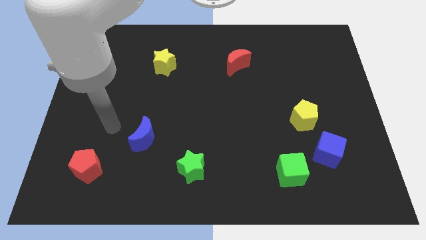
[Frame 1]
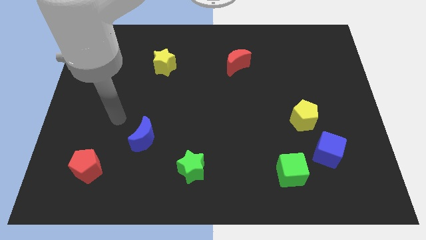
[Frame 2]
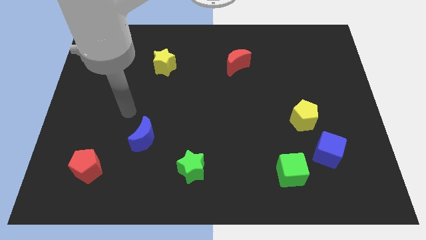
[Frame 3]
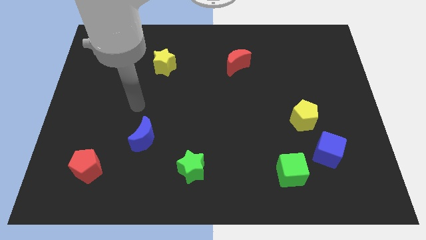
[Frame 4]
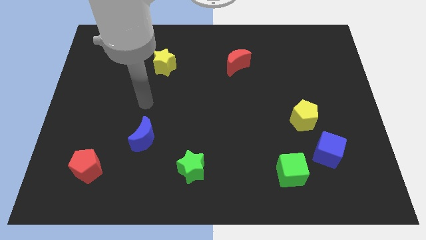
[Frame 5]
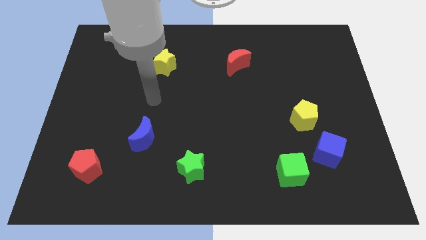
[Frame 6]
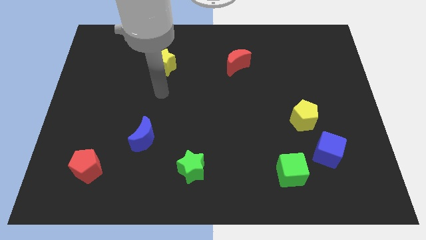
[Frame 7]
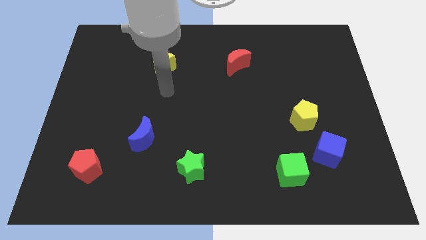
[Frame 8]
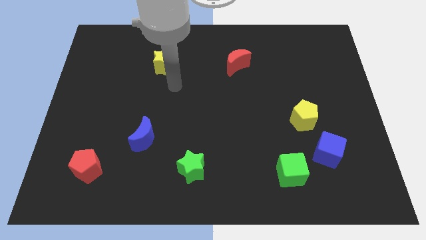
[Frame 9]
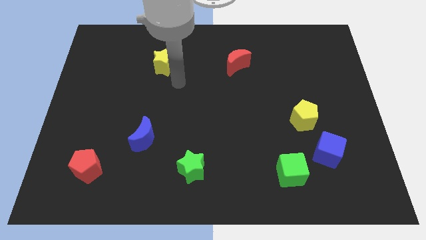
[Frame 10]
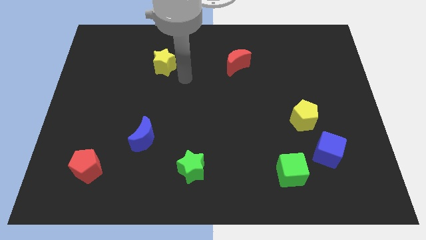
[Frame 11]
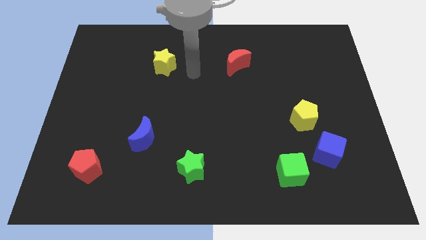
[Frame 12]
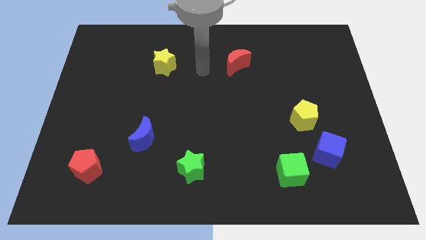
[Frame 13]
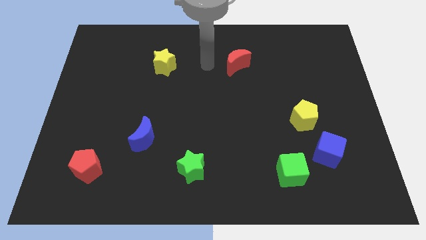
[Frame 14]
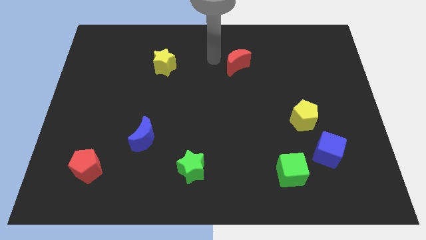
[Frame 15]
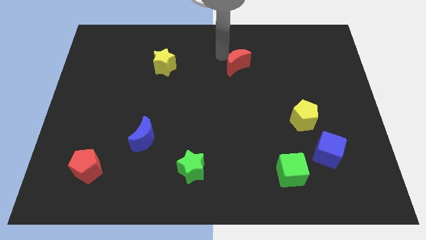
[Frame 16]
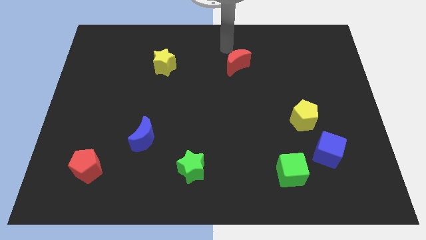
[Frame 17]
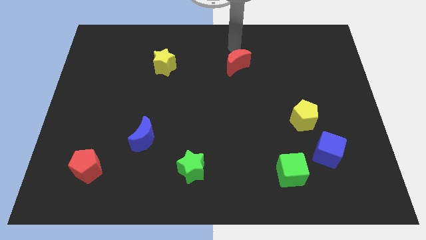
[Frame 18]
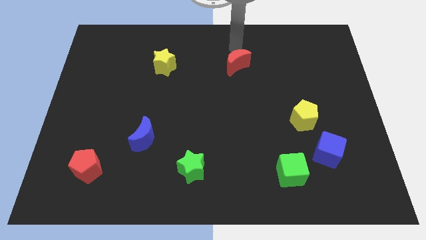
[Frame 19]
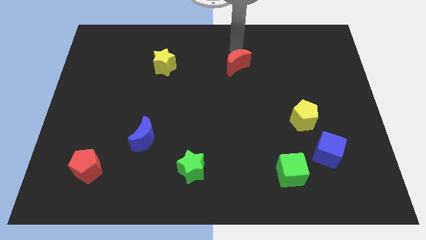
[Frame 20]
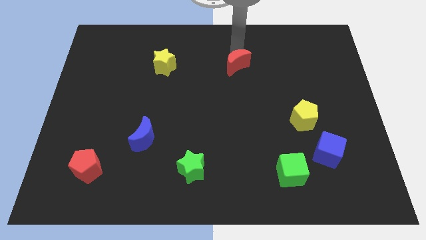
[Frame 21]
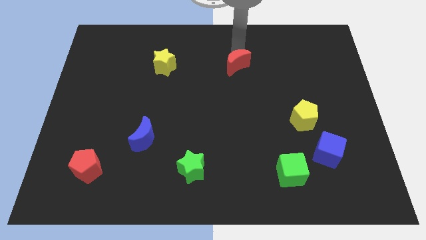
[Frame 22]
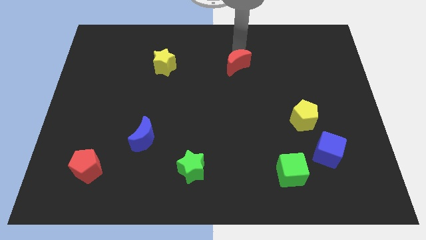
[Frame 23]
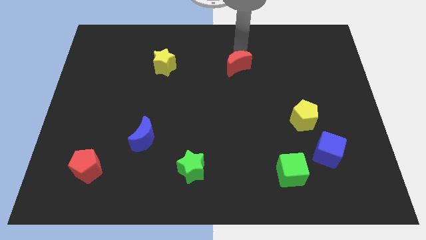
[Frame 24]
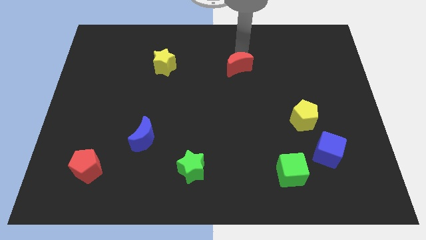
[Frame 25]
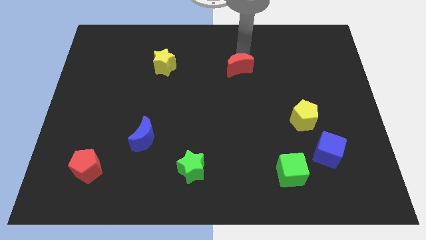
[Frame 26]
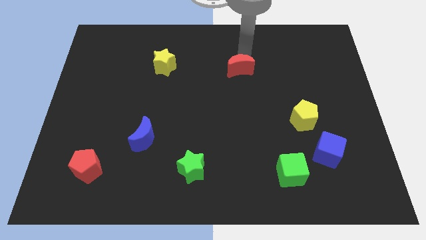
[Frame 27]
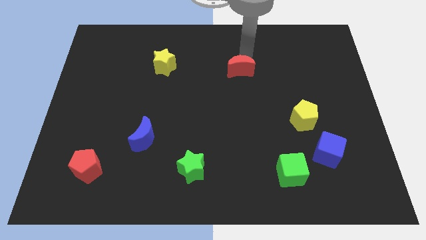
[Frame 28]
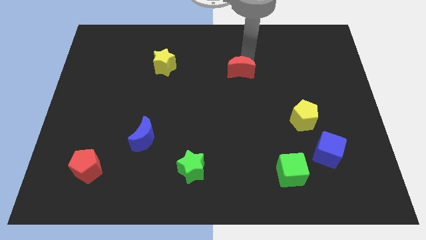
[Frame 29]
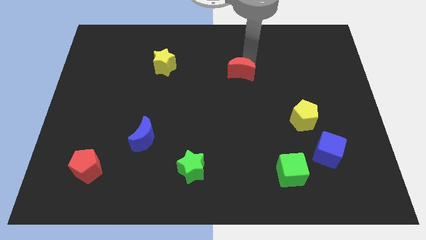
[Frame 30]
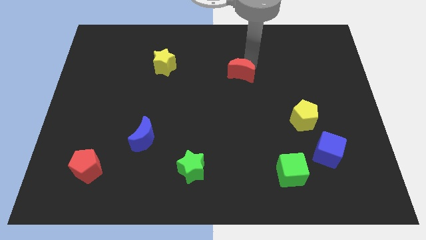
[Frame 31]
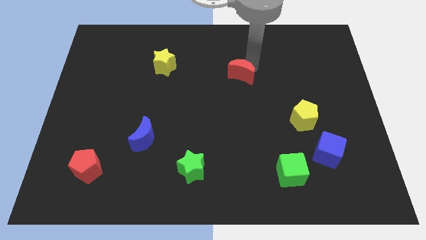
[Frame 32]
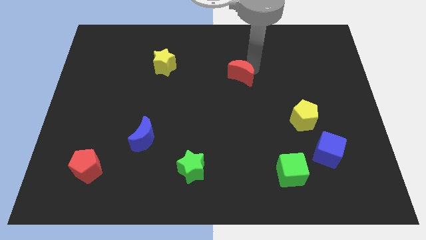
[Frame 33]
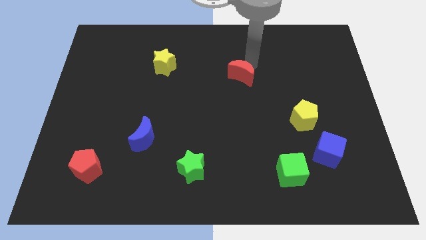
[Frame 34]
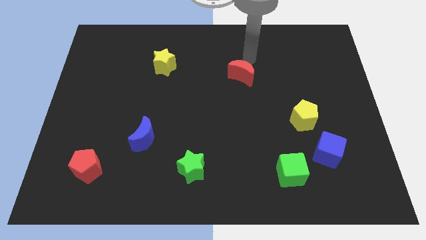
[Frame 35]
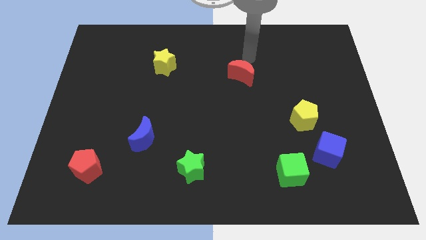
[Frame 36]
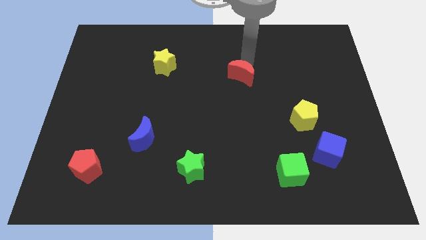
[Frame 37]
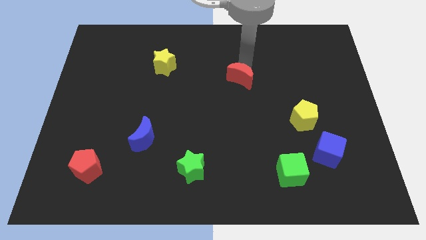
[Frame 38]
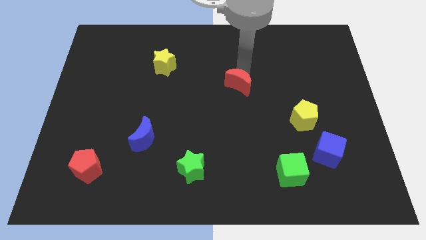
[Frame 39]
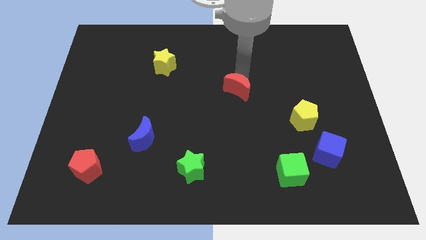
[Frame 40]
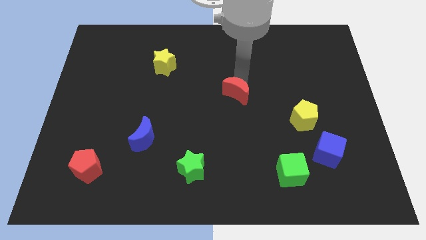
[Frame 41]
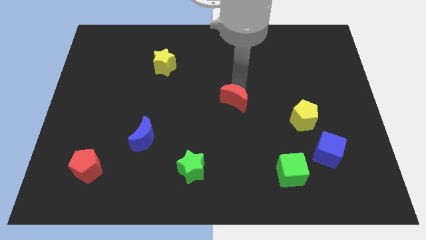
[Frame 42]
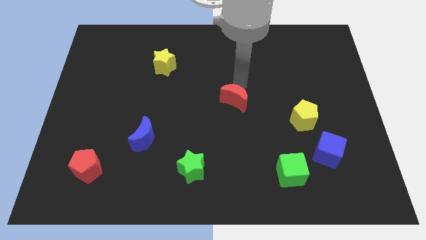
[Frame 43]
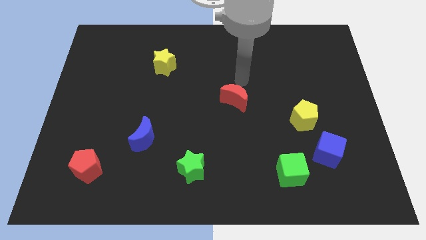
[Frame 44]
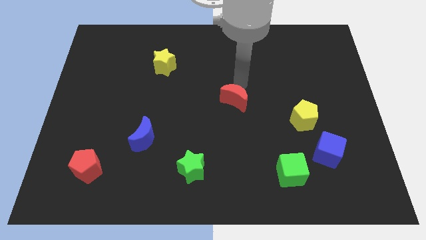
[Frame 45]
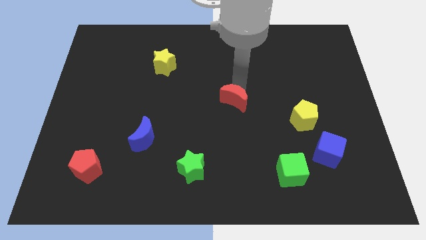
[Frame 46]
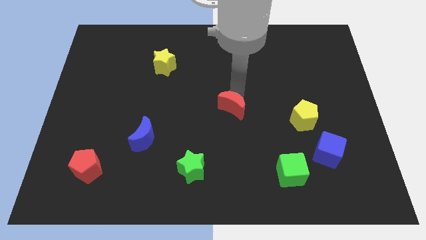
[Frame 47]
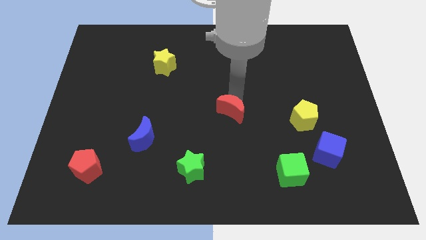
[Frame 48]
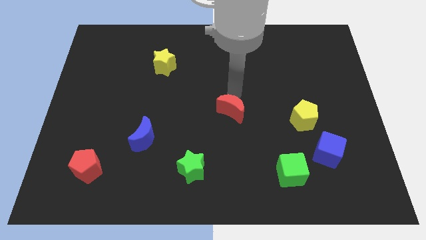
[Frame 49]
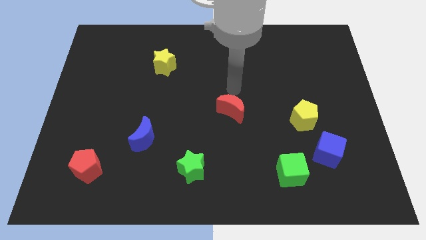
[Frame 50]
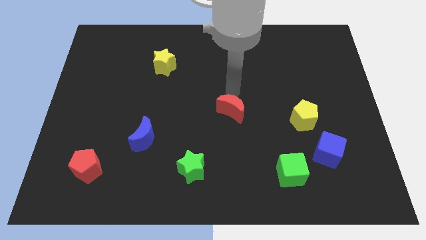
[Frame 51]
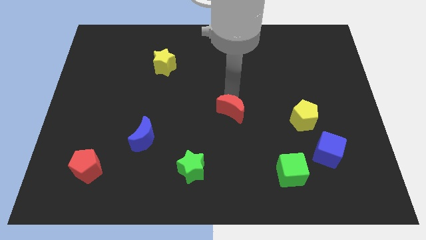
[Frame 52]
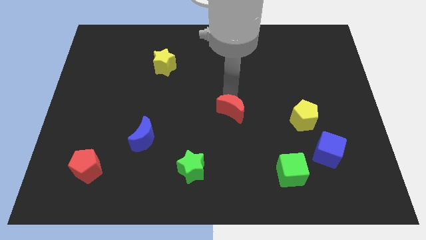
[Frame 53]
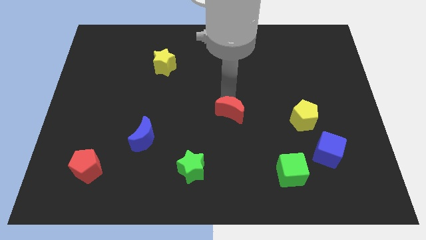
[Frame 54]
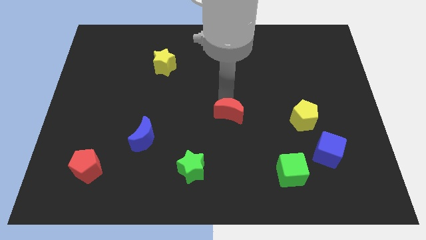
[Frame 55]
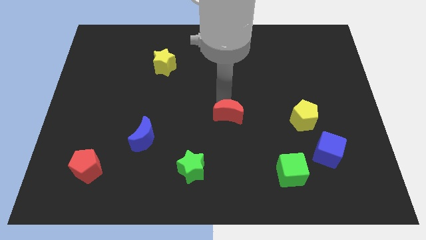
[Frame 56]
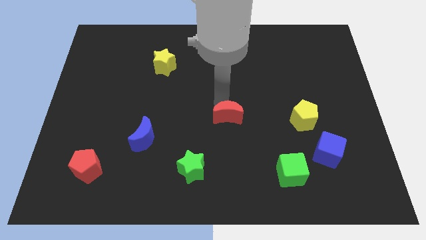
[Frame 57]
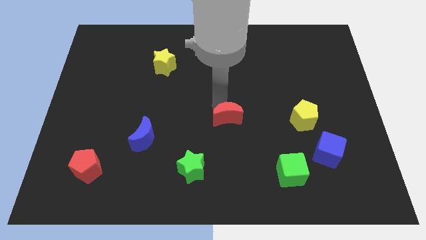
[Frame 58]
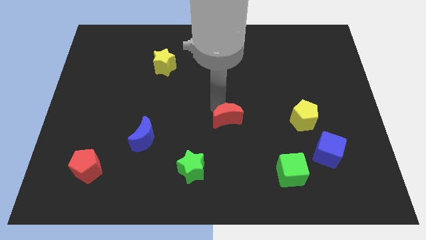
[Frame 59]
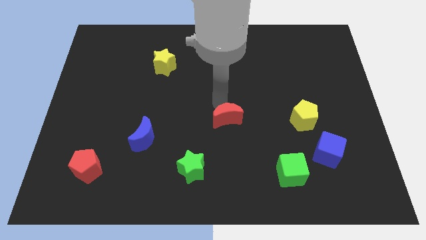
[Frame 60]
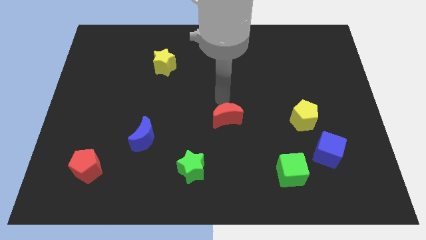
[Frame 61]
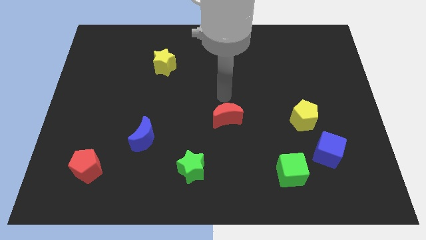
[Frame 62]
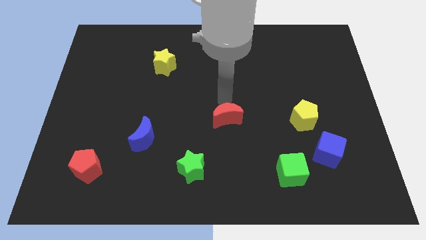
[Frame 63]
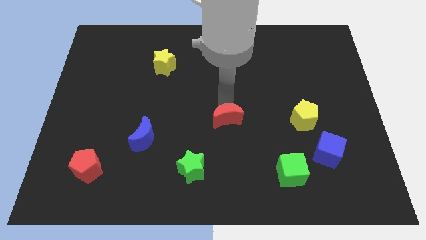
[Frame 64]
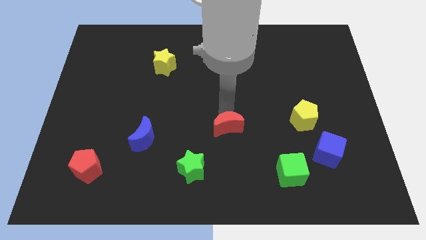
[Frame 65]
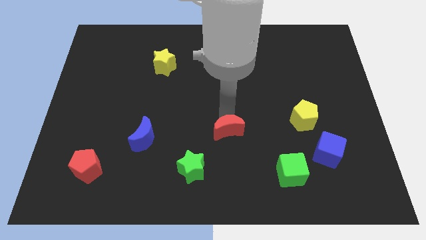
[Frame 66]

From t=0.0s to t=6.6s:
move the red moon downwards

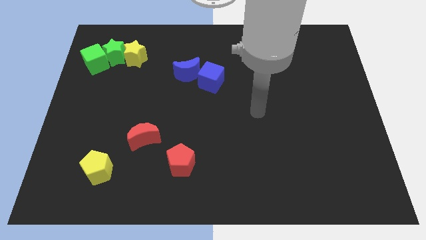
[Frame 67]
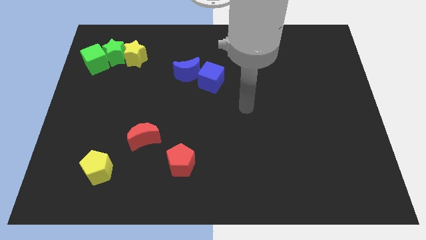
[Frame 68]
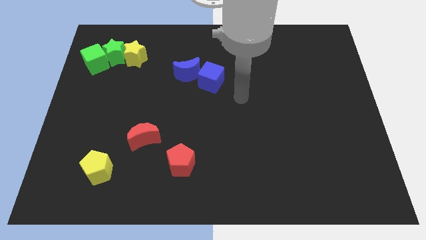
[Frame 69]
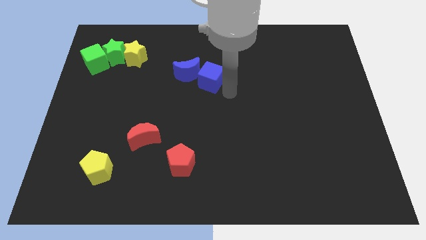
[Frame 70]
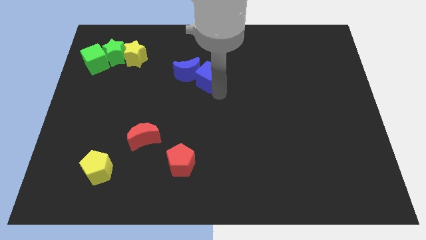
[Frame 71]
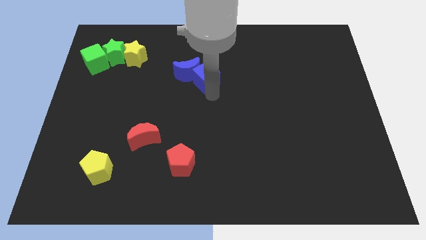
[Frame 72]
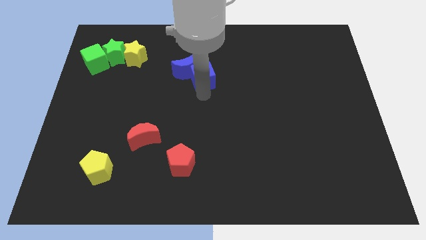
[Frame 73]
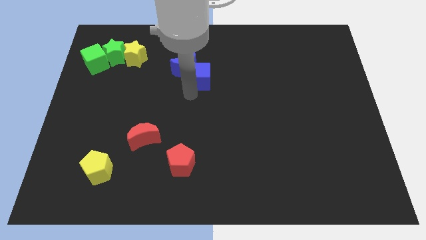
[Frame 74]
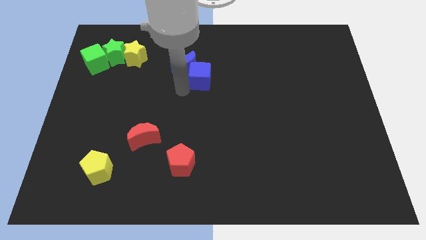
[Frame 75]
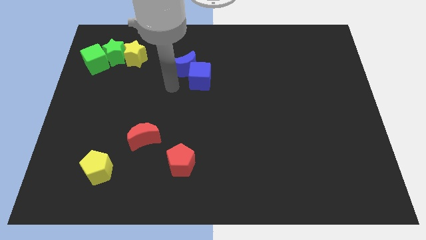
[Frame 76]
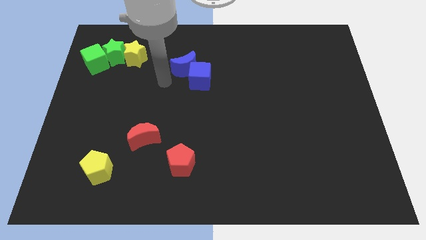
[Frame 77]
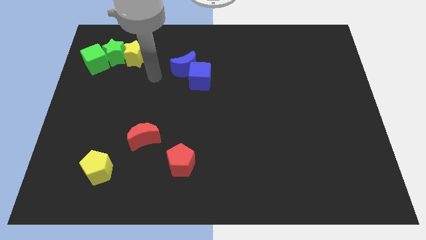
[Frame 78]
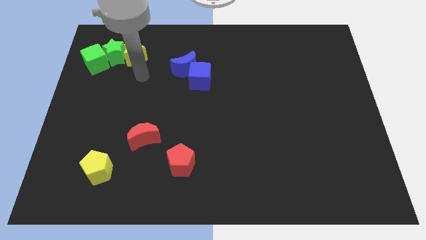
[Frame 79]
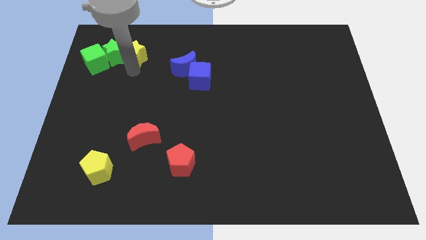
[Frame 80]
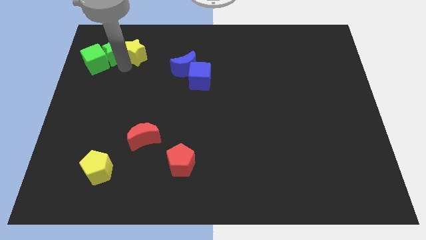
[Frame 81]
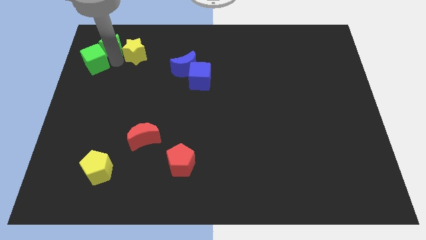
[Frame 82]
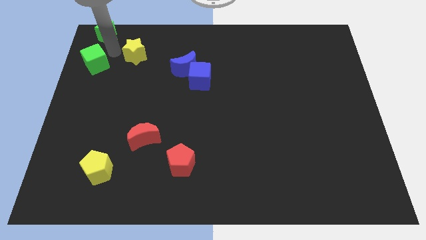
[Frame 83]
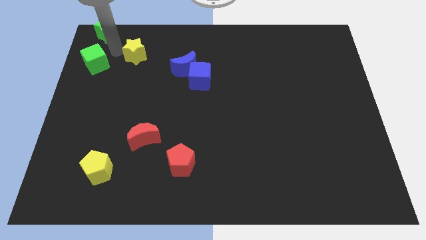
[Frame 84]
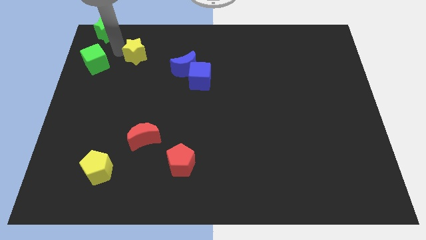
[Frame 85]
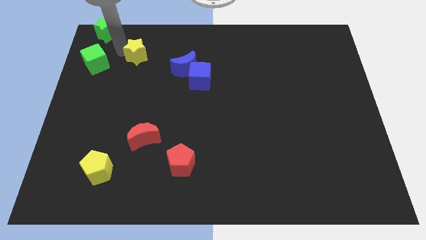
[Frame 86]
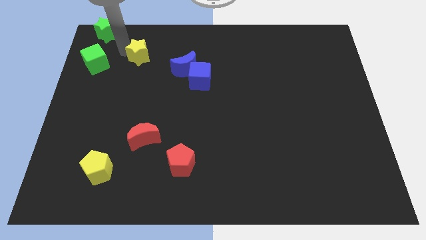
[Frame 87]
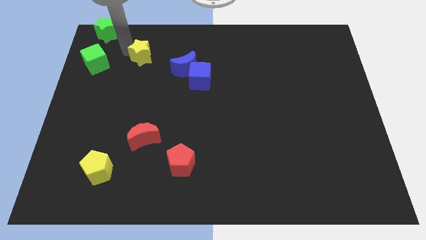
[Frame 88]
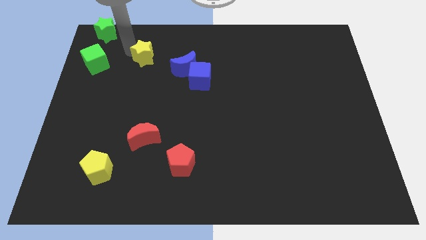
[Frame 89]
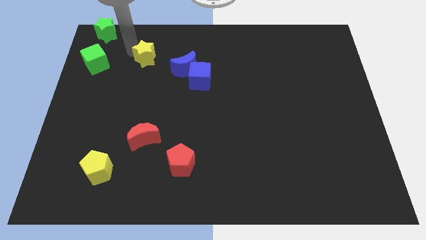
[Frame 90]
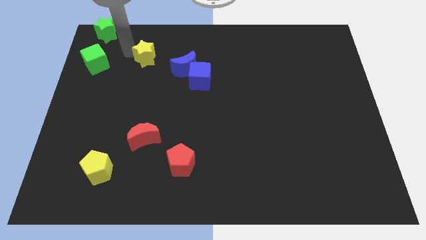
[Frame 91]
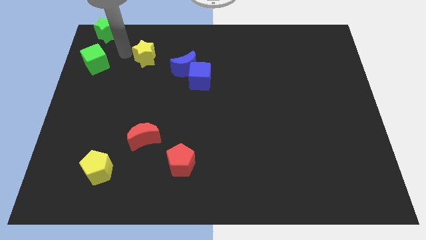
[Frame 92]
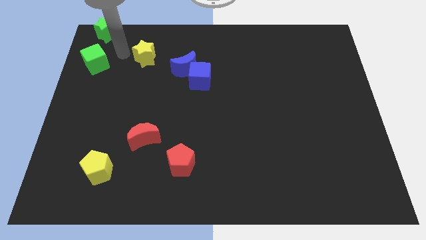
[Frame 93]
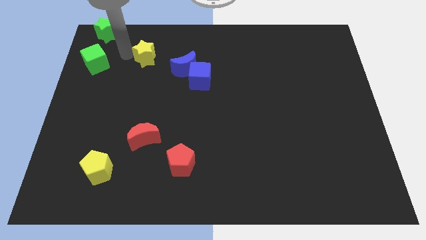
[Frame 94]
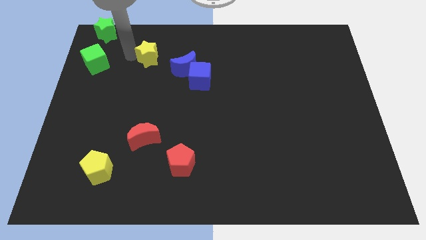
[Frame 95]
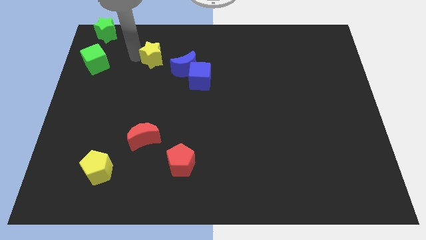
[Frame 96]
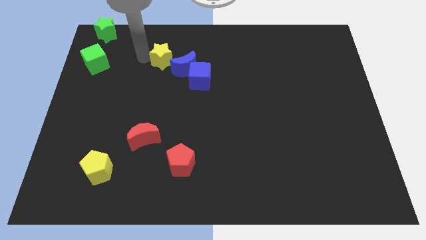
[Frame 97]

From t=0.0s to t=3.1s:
slightly slide the yellow star right
